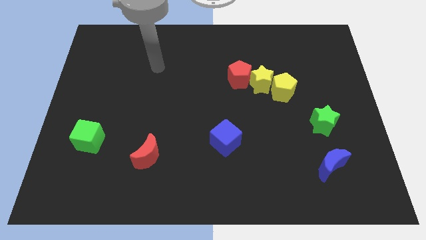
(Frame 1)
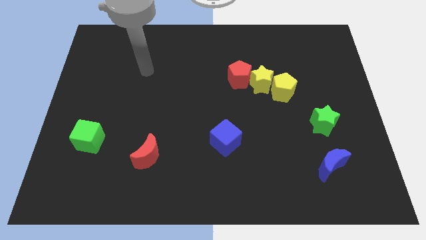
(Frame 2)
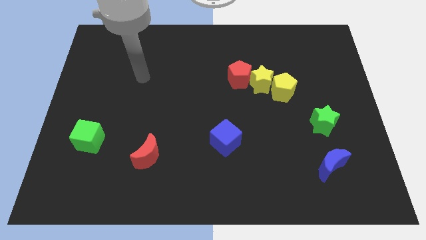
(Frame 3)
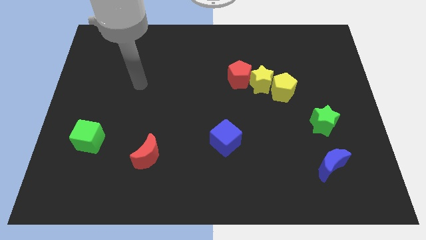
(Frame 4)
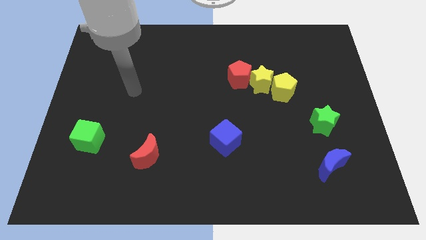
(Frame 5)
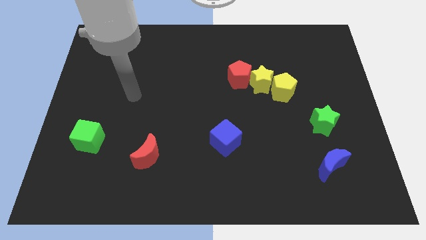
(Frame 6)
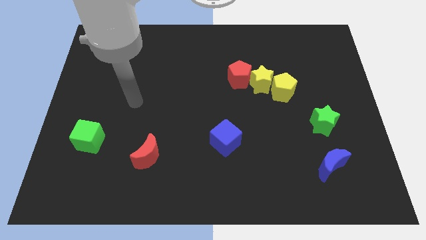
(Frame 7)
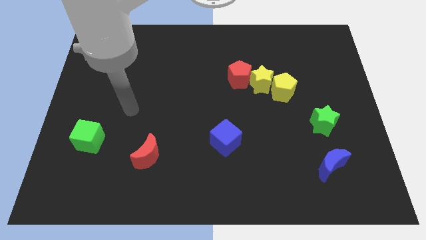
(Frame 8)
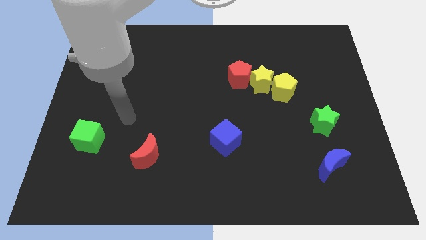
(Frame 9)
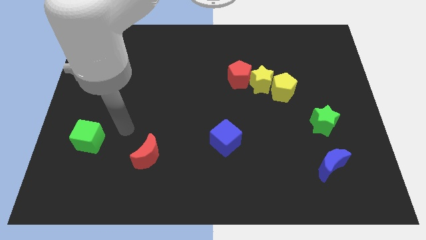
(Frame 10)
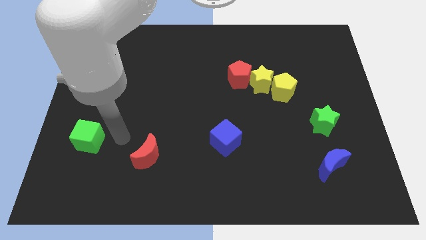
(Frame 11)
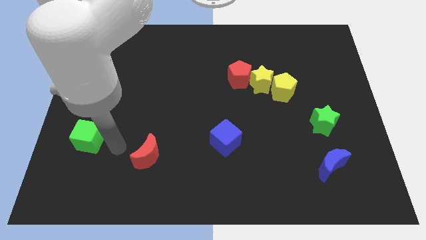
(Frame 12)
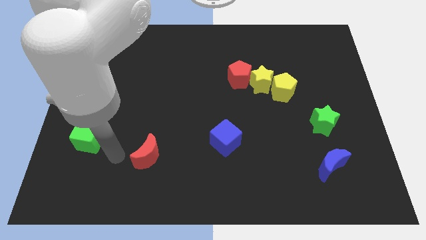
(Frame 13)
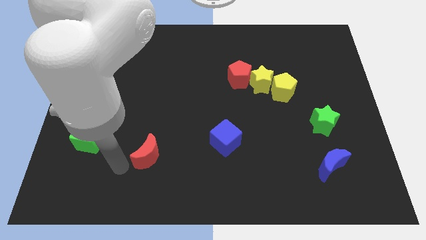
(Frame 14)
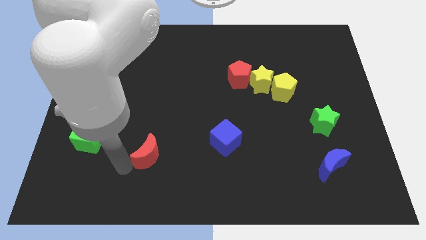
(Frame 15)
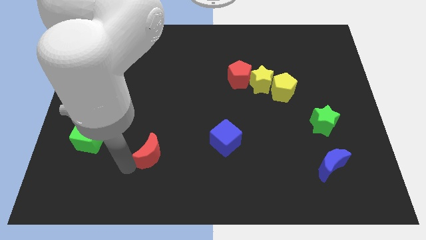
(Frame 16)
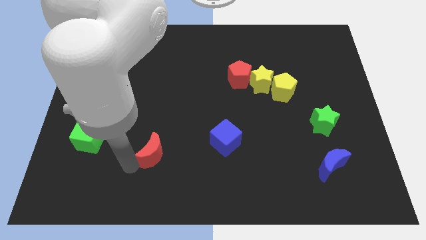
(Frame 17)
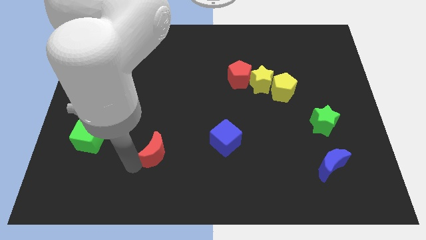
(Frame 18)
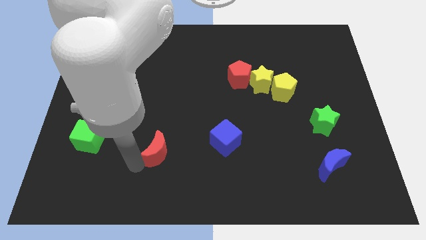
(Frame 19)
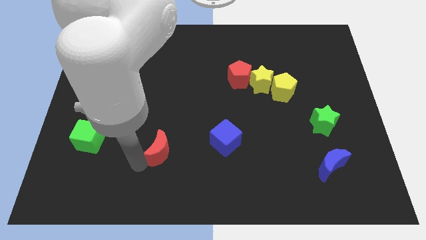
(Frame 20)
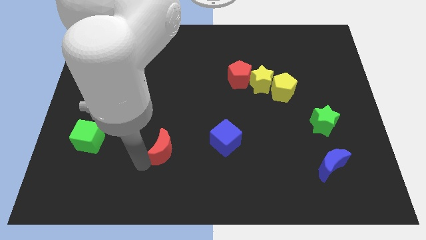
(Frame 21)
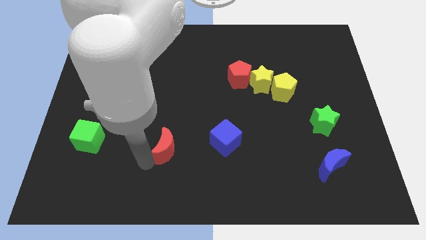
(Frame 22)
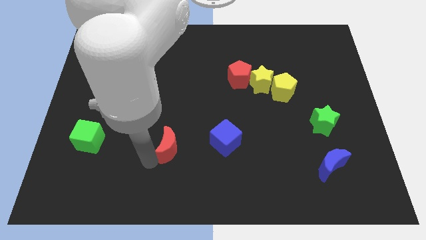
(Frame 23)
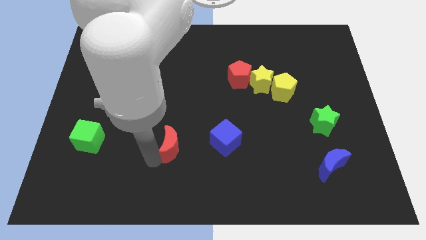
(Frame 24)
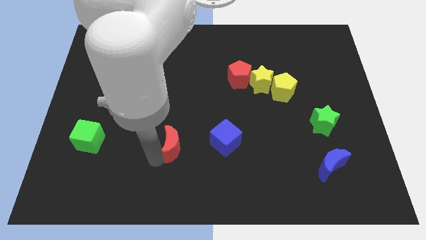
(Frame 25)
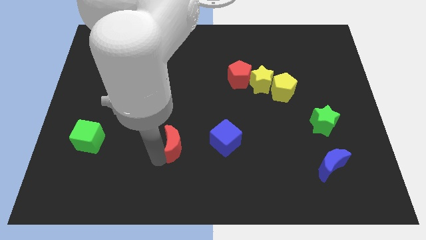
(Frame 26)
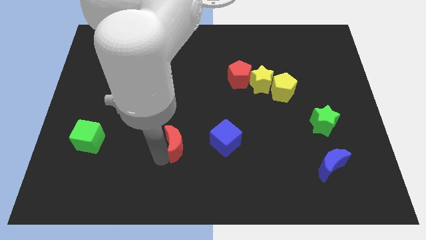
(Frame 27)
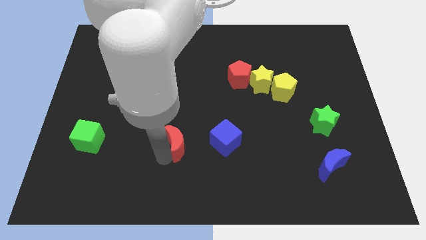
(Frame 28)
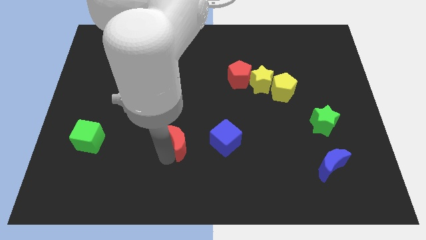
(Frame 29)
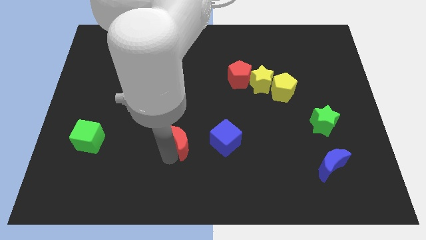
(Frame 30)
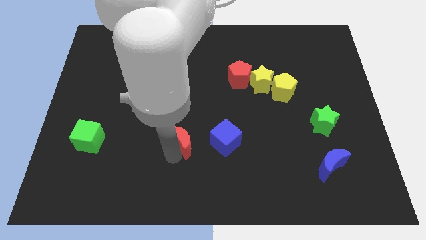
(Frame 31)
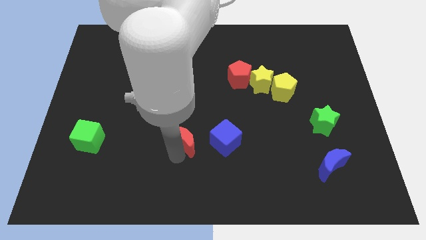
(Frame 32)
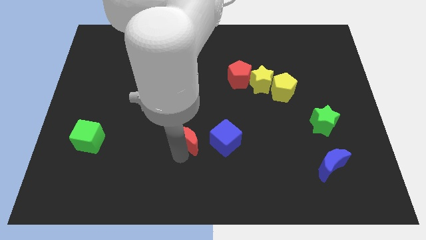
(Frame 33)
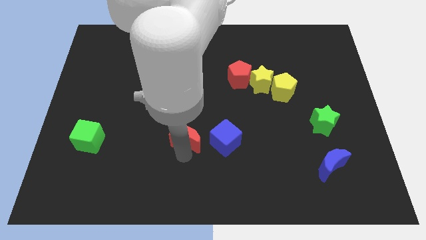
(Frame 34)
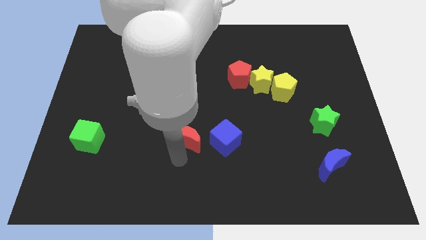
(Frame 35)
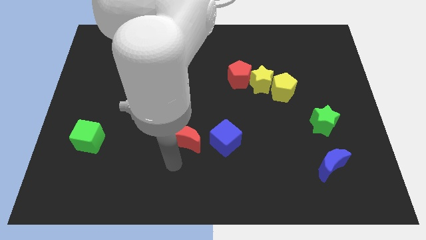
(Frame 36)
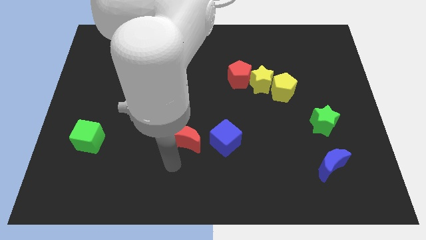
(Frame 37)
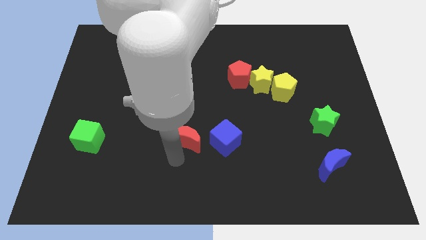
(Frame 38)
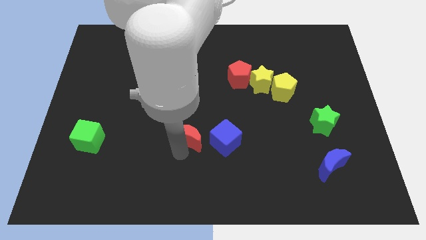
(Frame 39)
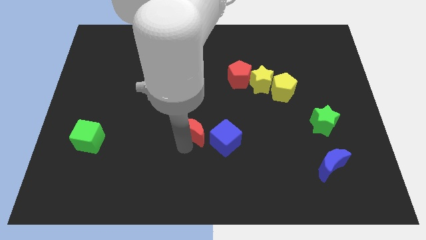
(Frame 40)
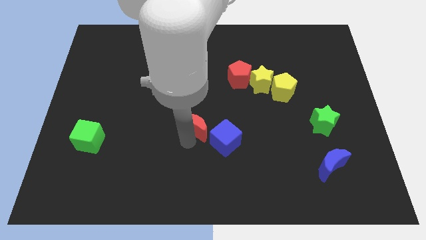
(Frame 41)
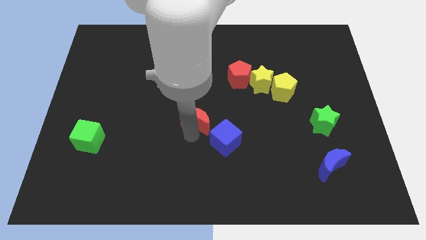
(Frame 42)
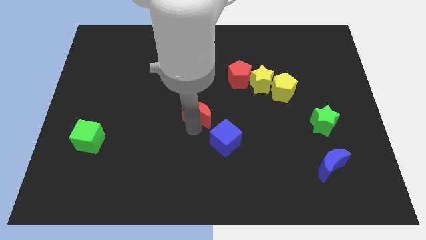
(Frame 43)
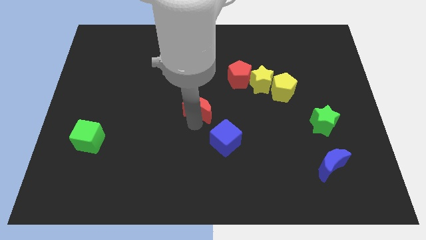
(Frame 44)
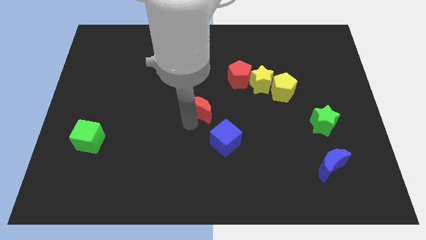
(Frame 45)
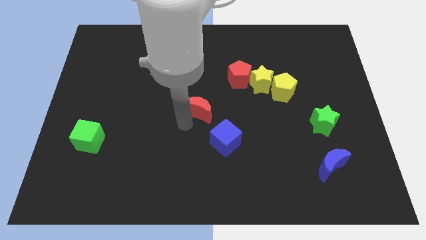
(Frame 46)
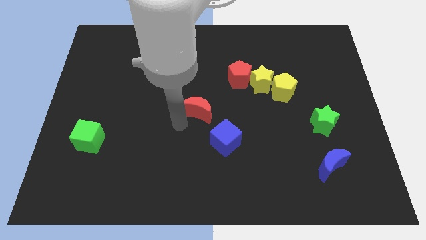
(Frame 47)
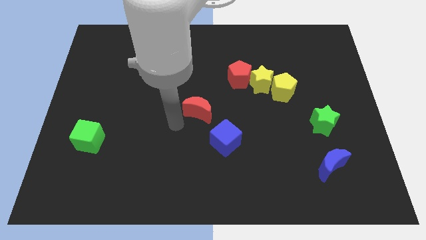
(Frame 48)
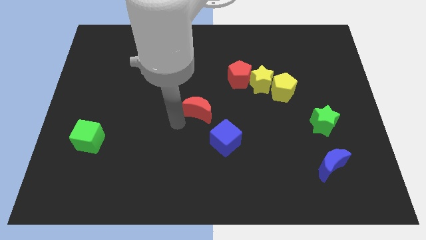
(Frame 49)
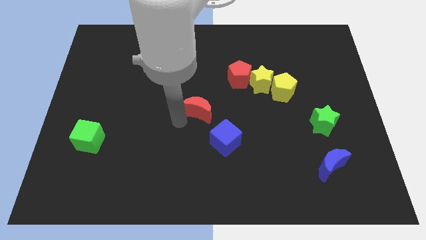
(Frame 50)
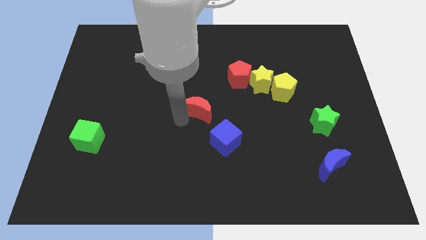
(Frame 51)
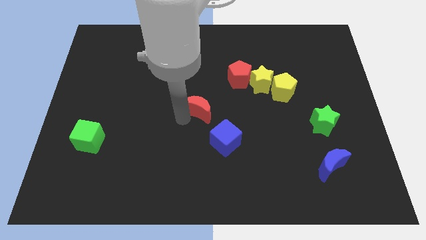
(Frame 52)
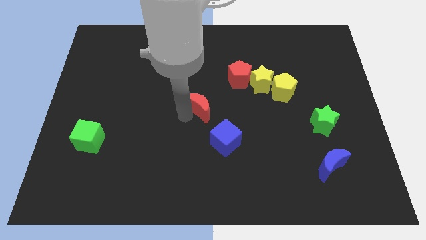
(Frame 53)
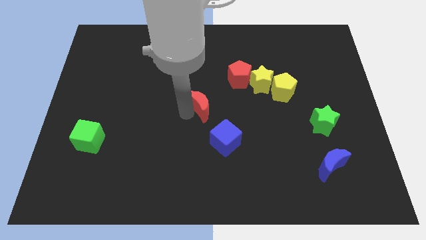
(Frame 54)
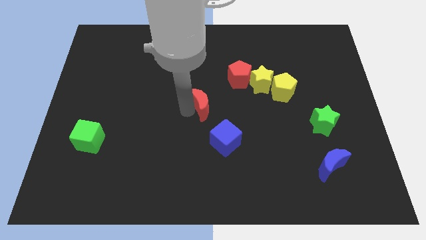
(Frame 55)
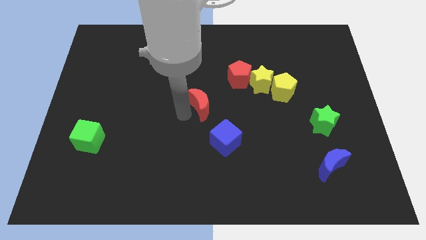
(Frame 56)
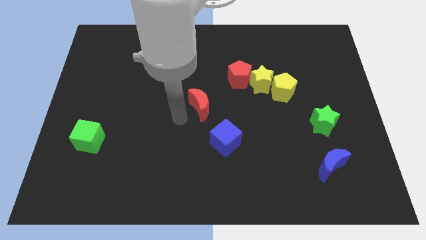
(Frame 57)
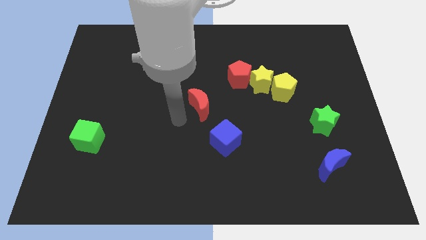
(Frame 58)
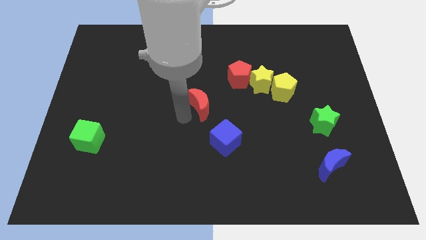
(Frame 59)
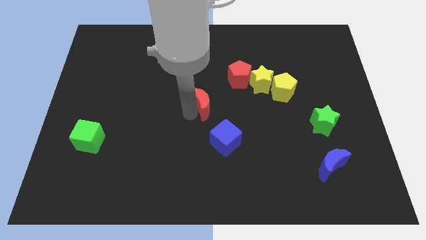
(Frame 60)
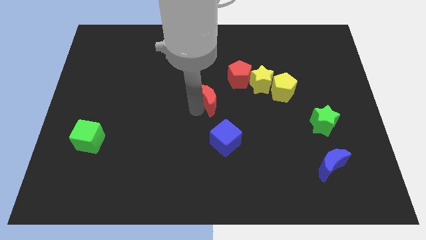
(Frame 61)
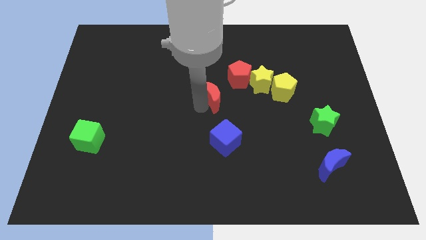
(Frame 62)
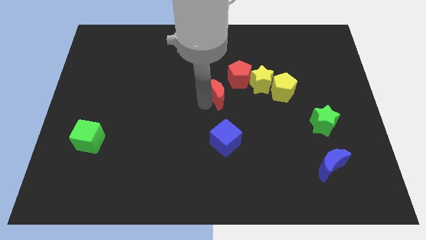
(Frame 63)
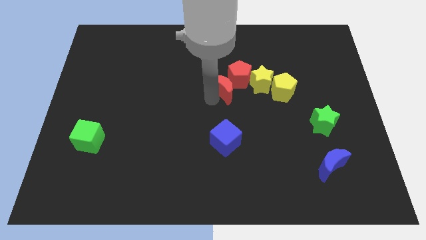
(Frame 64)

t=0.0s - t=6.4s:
move the red moon next to the red pentagon

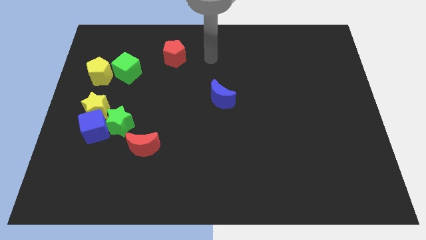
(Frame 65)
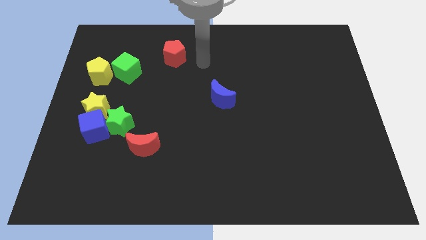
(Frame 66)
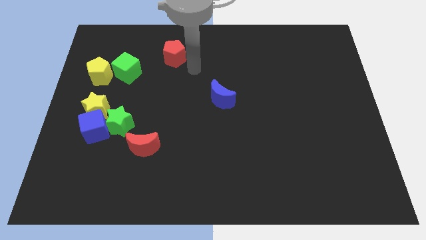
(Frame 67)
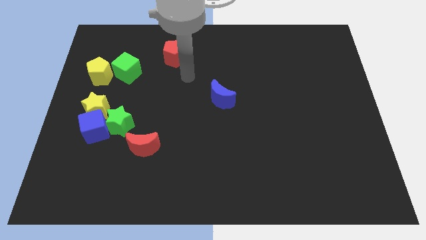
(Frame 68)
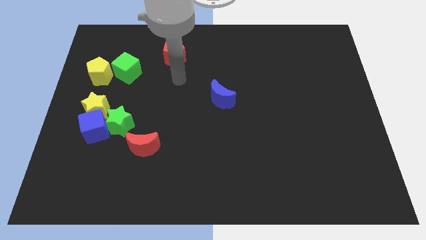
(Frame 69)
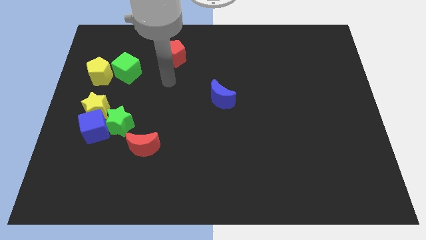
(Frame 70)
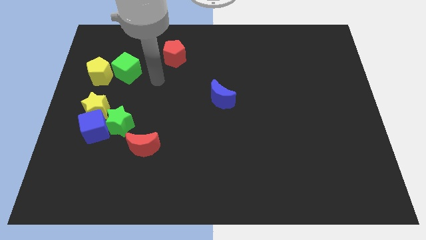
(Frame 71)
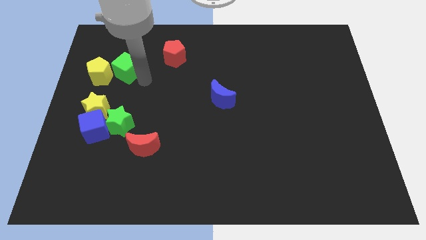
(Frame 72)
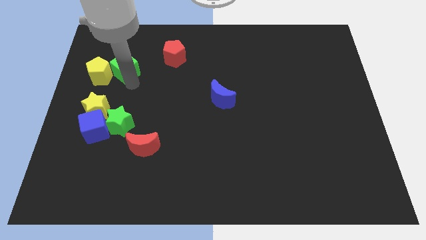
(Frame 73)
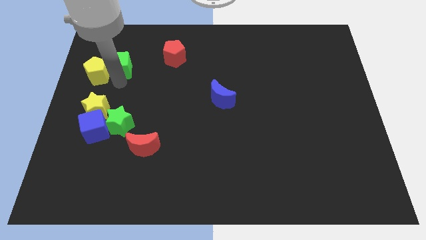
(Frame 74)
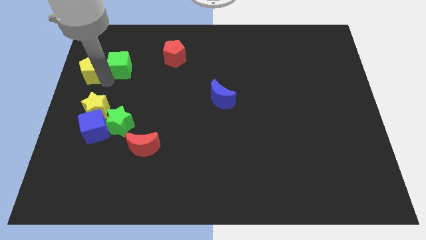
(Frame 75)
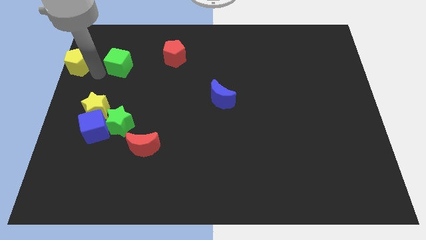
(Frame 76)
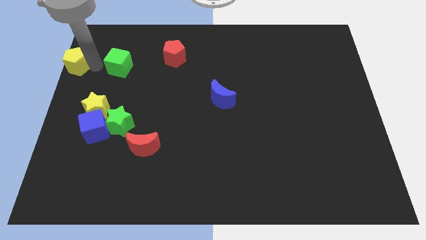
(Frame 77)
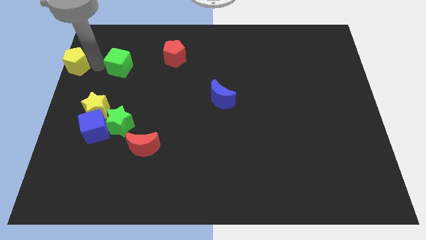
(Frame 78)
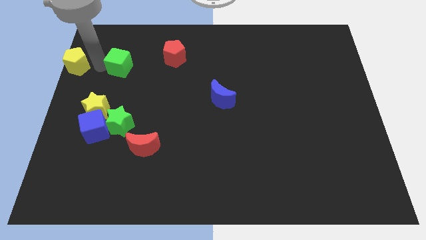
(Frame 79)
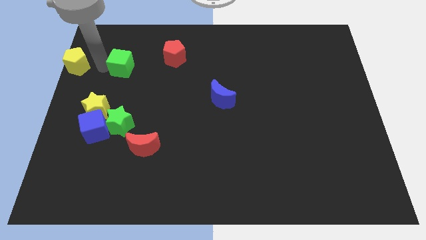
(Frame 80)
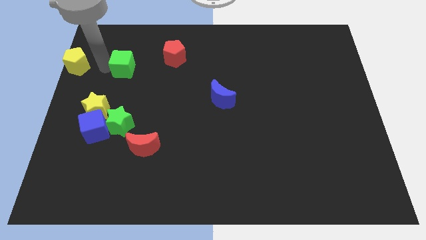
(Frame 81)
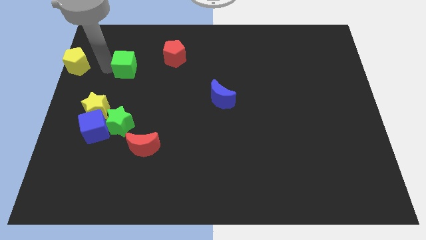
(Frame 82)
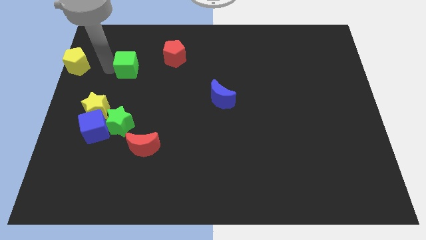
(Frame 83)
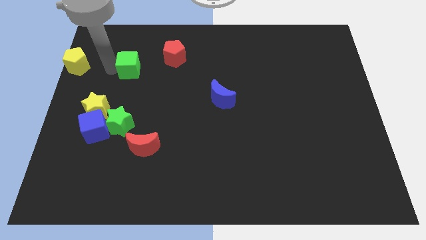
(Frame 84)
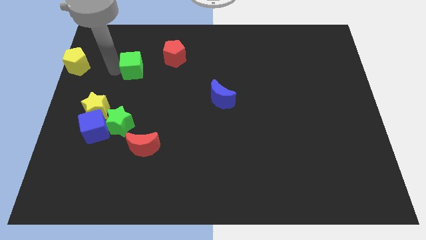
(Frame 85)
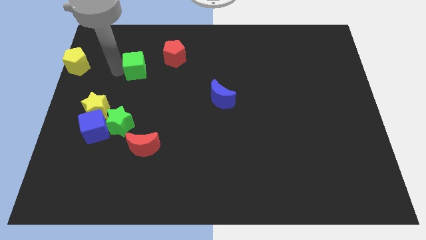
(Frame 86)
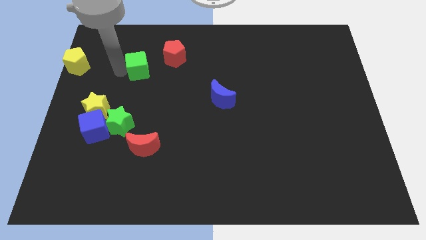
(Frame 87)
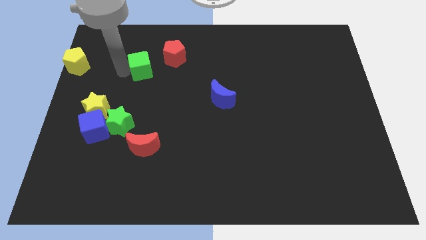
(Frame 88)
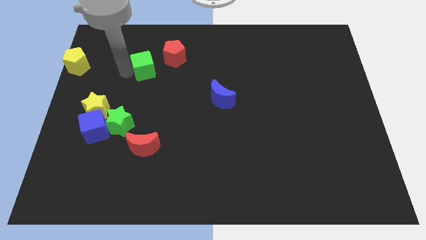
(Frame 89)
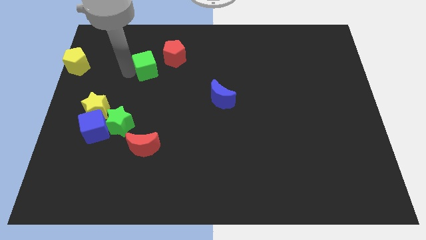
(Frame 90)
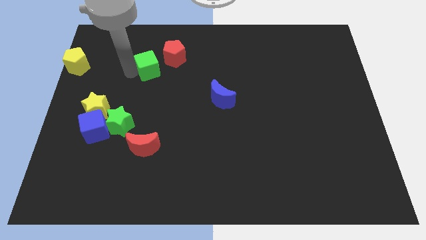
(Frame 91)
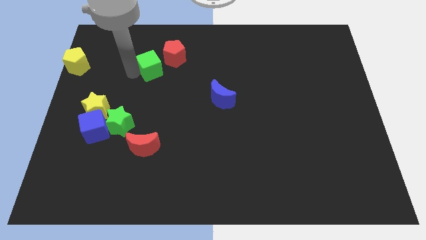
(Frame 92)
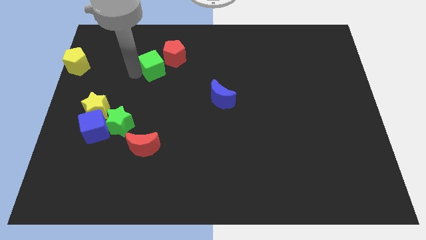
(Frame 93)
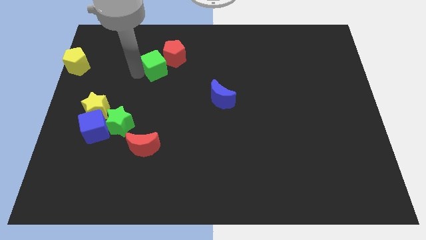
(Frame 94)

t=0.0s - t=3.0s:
push the green cube close to the red pentagon
